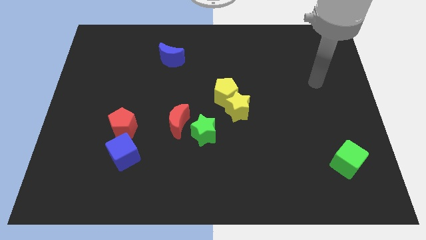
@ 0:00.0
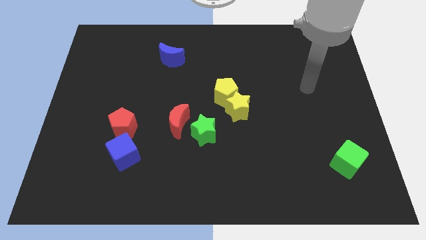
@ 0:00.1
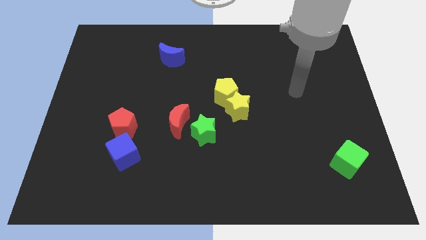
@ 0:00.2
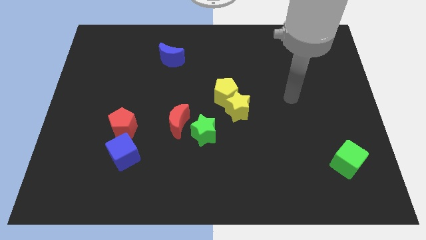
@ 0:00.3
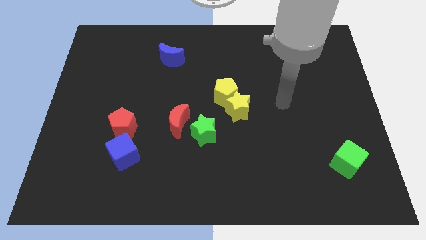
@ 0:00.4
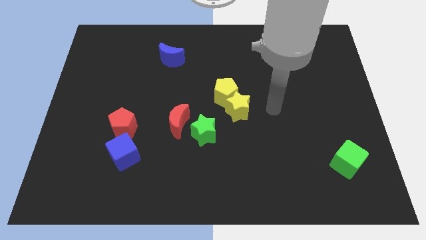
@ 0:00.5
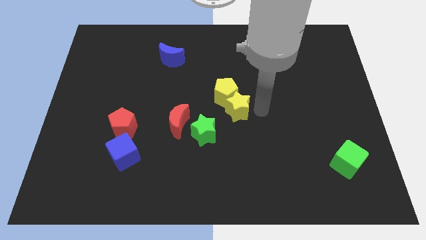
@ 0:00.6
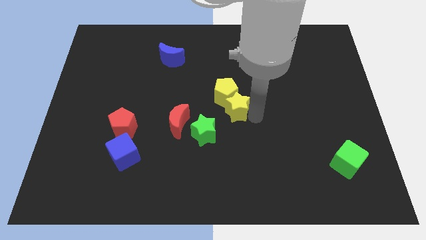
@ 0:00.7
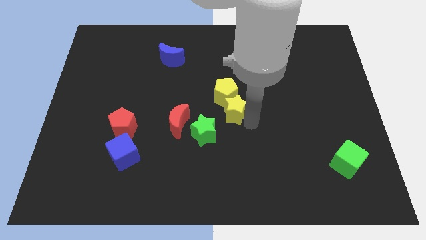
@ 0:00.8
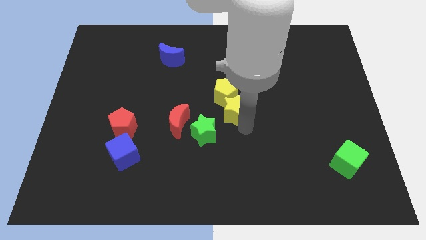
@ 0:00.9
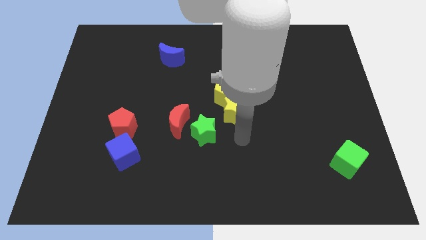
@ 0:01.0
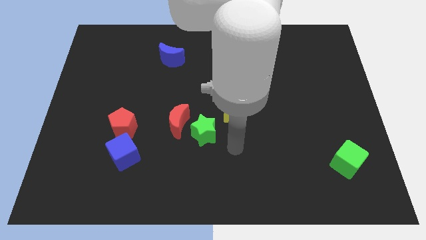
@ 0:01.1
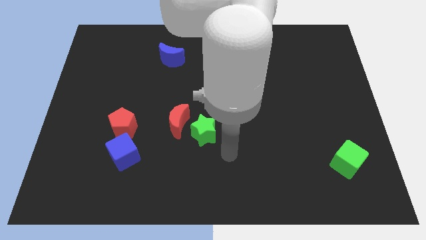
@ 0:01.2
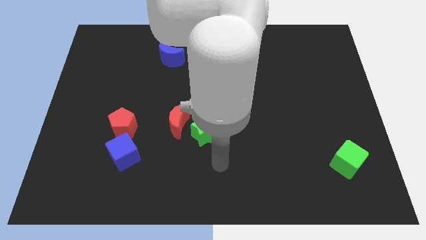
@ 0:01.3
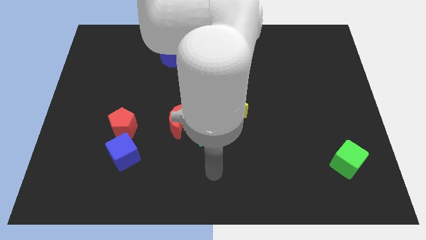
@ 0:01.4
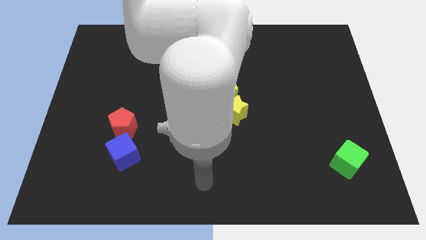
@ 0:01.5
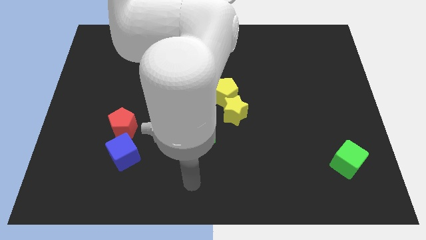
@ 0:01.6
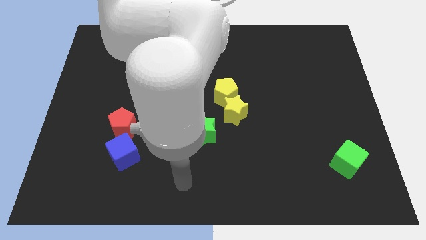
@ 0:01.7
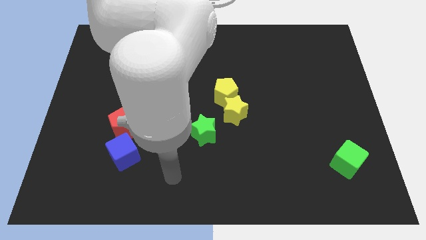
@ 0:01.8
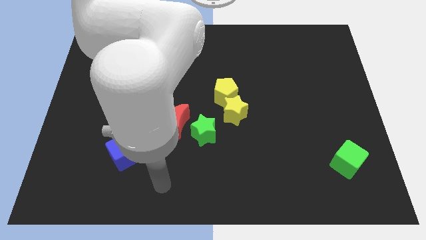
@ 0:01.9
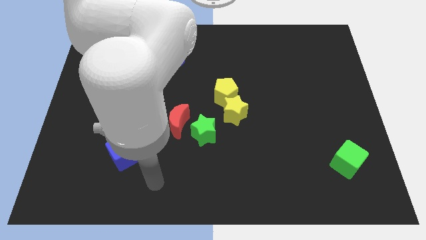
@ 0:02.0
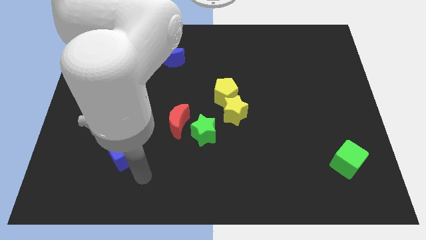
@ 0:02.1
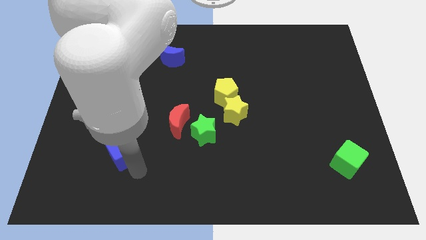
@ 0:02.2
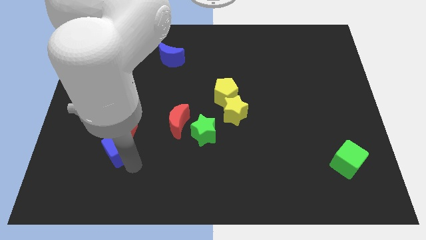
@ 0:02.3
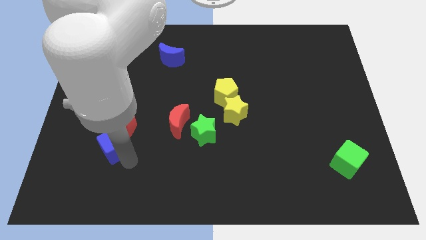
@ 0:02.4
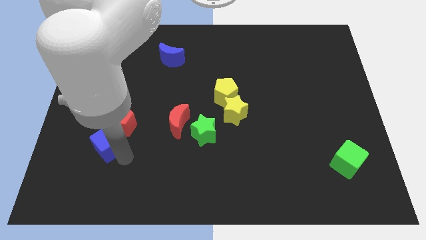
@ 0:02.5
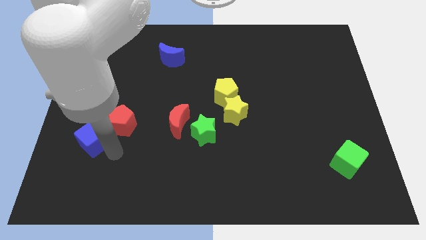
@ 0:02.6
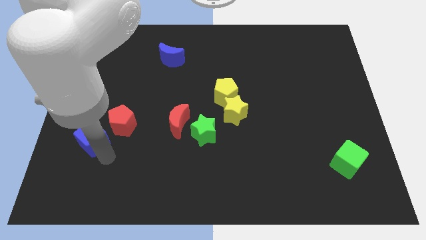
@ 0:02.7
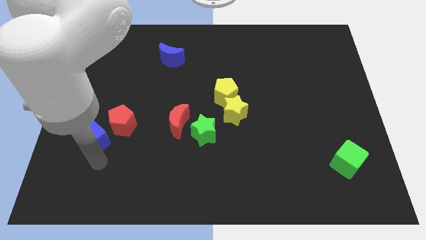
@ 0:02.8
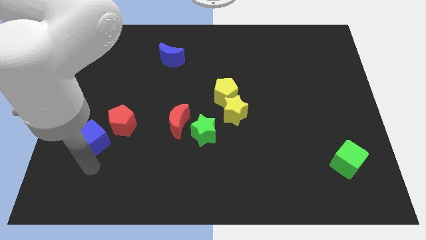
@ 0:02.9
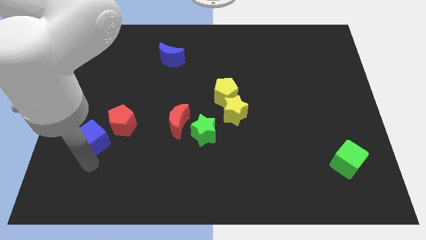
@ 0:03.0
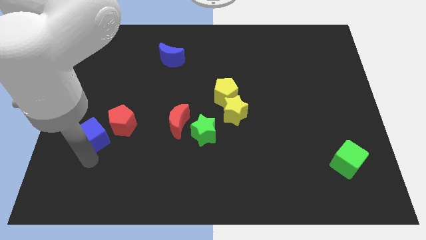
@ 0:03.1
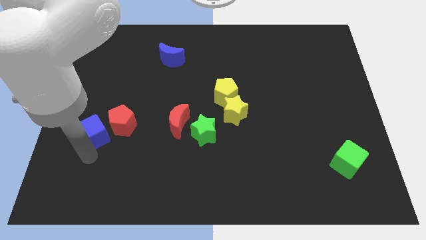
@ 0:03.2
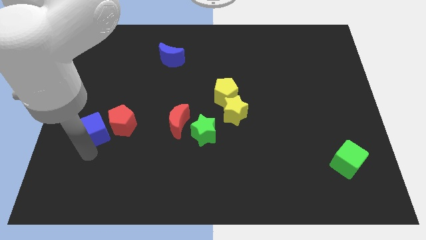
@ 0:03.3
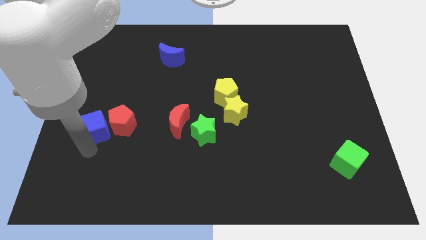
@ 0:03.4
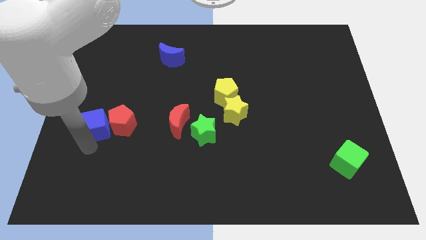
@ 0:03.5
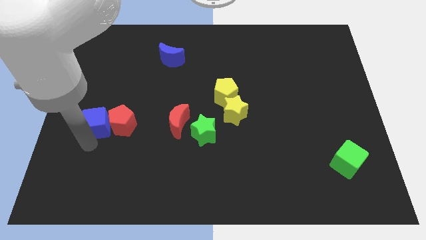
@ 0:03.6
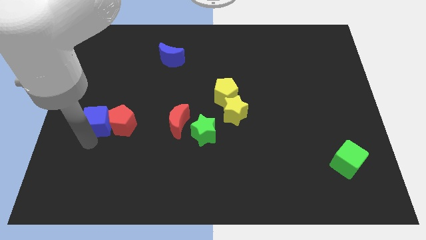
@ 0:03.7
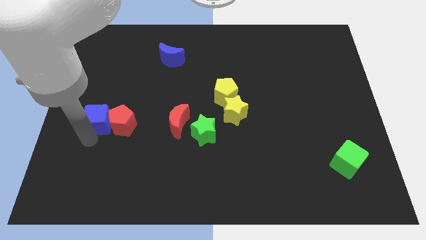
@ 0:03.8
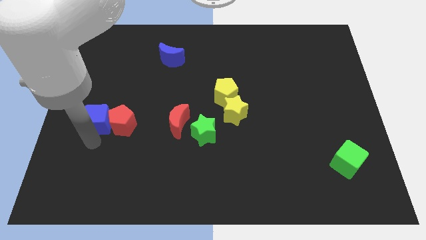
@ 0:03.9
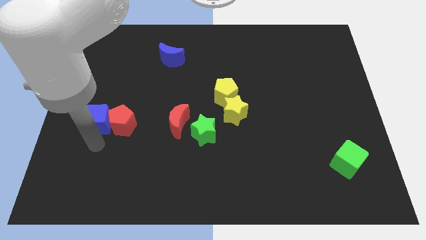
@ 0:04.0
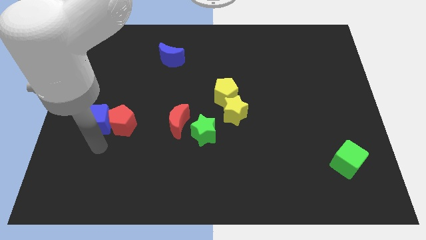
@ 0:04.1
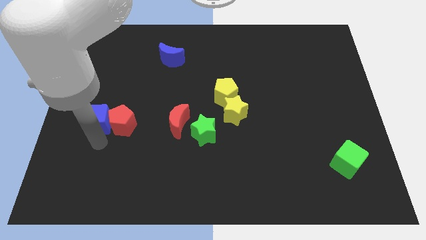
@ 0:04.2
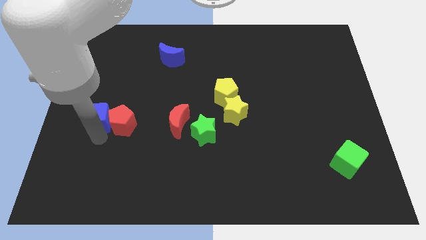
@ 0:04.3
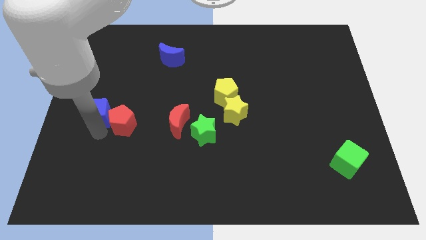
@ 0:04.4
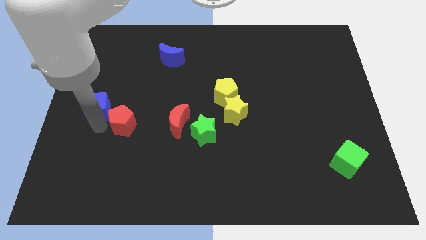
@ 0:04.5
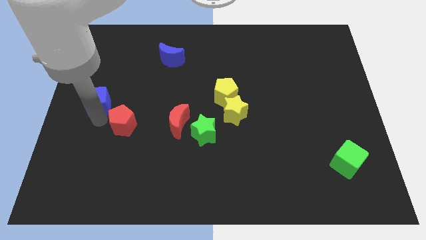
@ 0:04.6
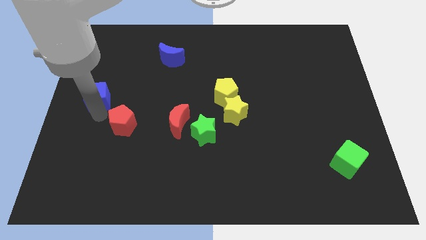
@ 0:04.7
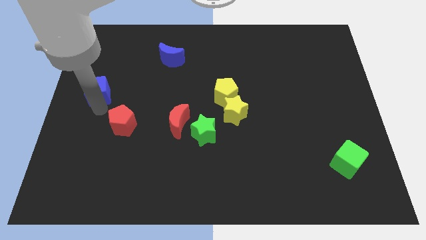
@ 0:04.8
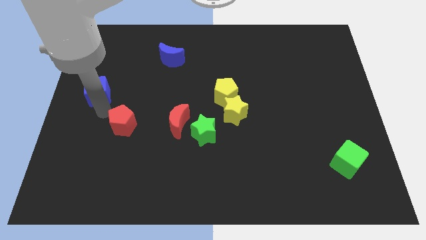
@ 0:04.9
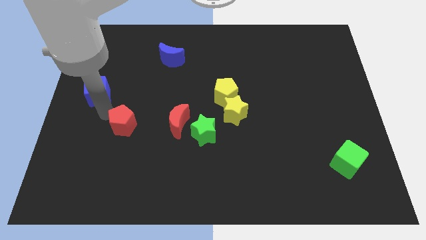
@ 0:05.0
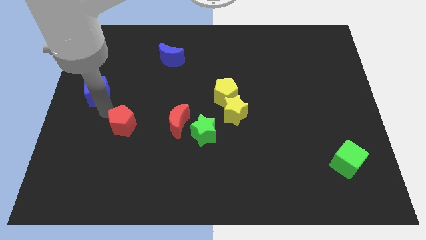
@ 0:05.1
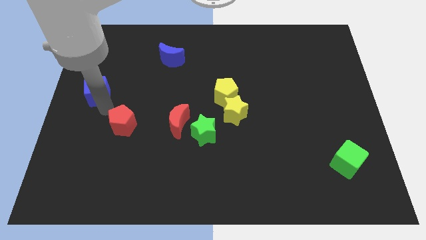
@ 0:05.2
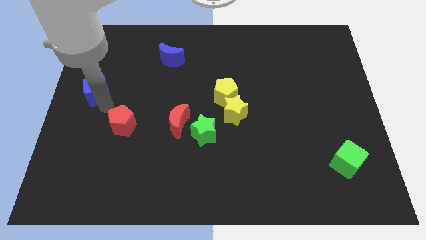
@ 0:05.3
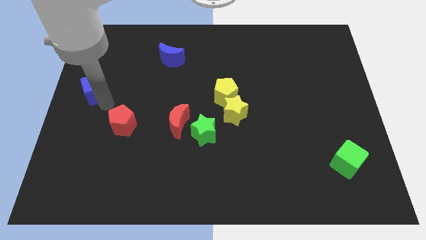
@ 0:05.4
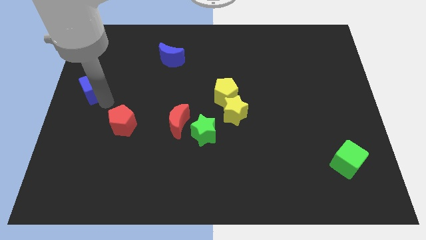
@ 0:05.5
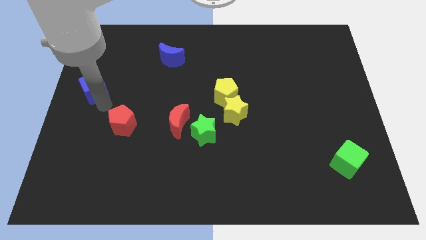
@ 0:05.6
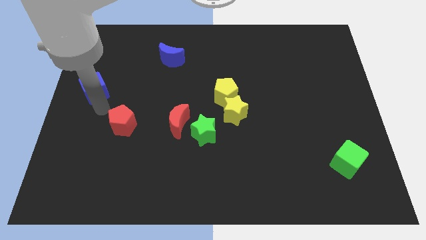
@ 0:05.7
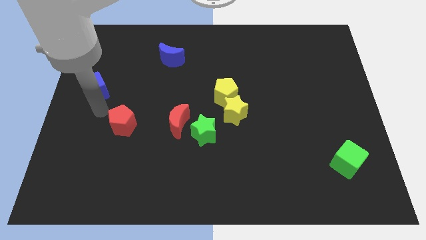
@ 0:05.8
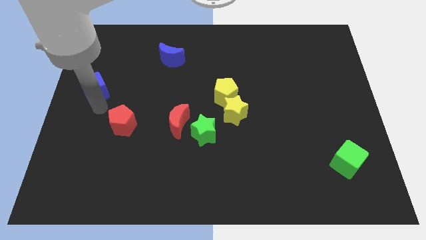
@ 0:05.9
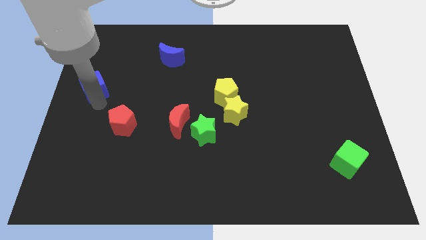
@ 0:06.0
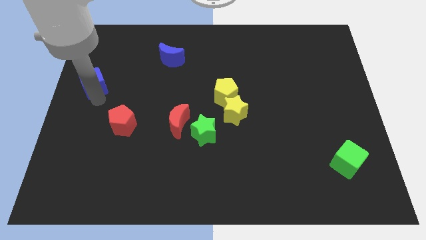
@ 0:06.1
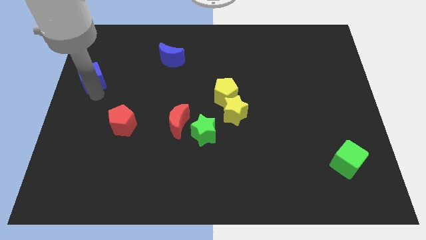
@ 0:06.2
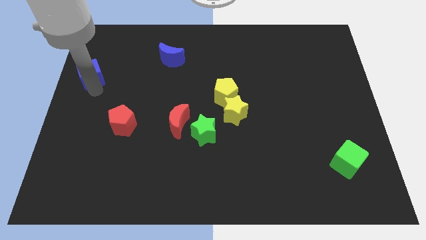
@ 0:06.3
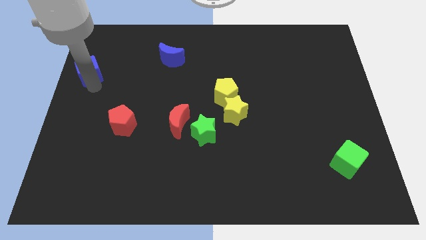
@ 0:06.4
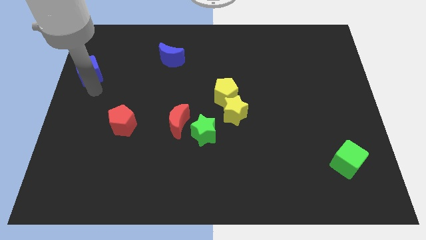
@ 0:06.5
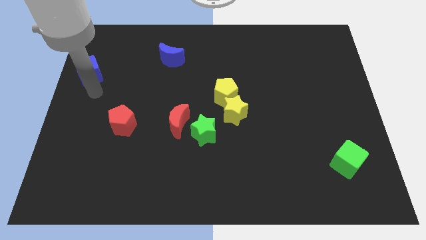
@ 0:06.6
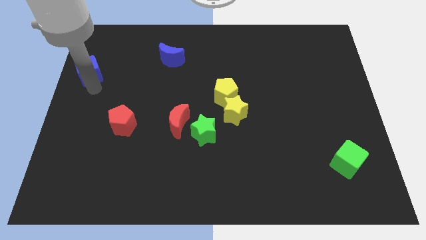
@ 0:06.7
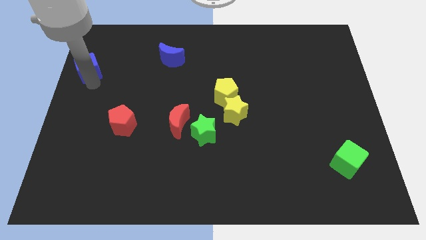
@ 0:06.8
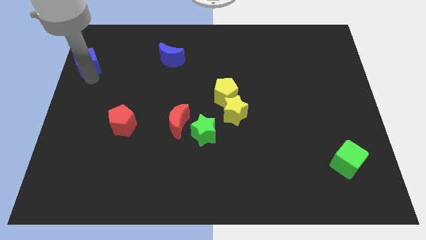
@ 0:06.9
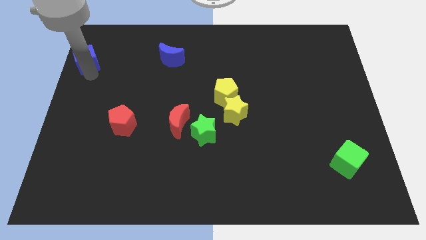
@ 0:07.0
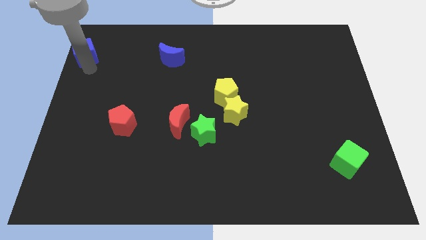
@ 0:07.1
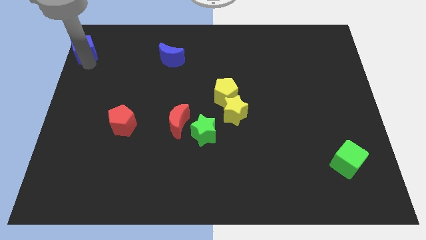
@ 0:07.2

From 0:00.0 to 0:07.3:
move the blue cube to the upper left corner
